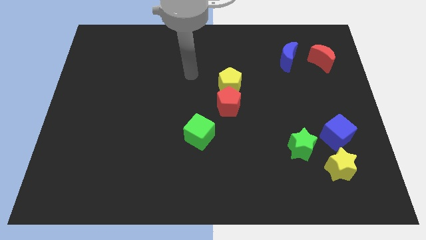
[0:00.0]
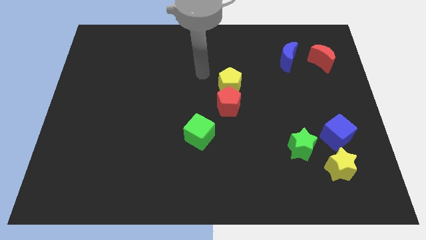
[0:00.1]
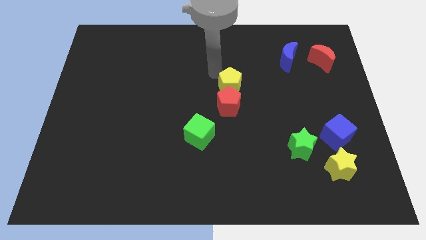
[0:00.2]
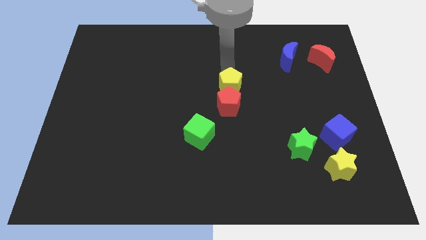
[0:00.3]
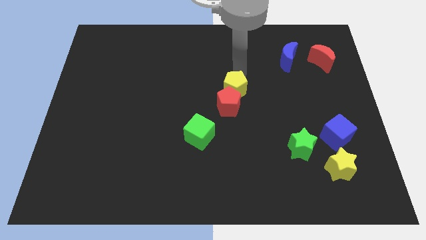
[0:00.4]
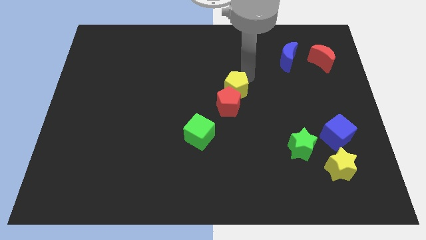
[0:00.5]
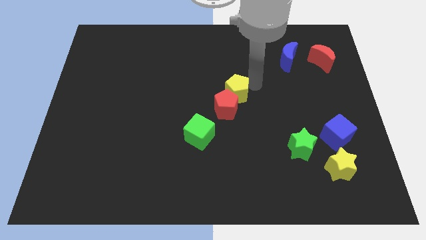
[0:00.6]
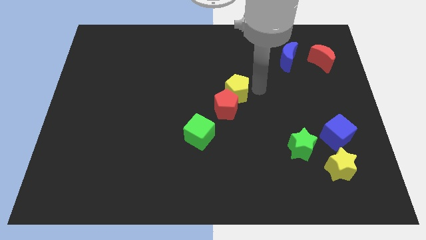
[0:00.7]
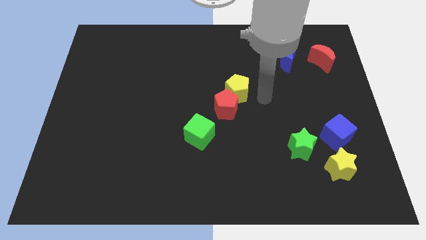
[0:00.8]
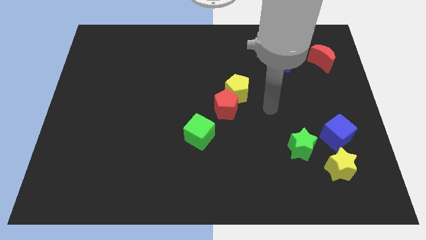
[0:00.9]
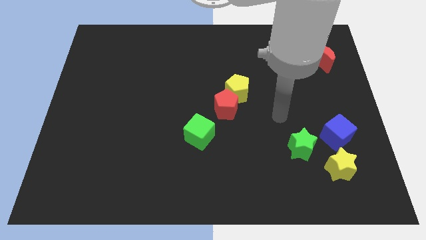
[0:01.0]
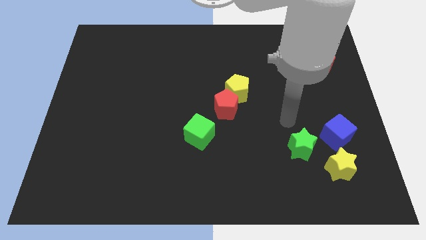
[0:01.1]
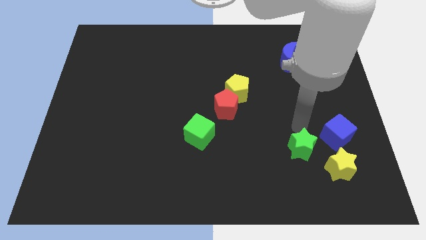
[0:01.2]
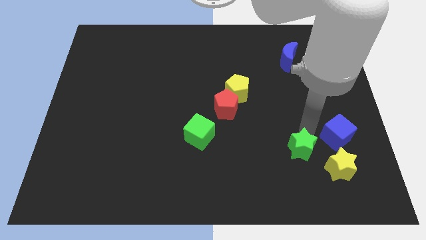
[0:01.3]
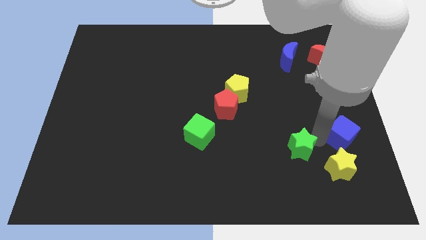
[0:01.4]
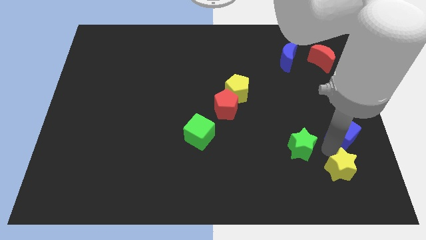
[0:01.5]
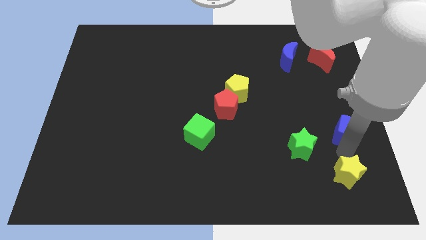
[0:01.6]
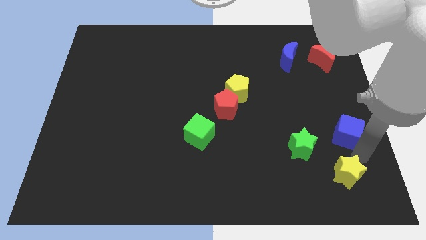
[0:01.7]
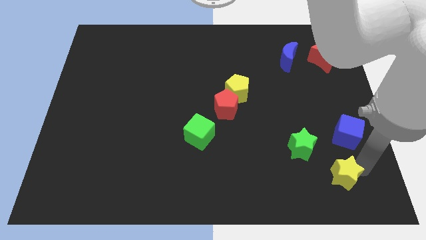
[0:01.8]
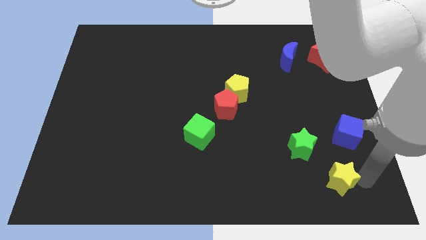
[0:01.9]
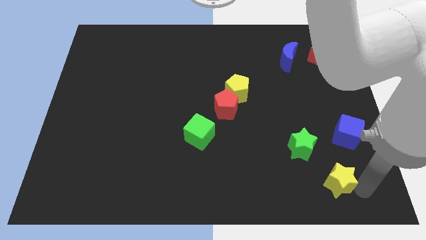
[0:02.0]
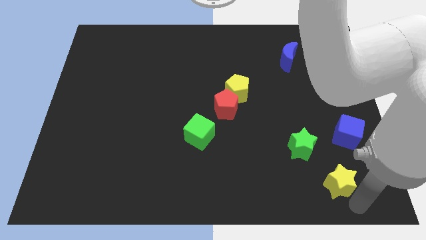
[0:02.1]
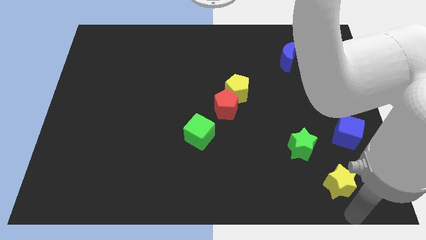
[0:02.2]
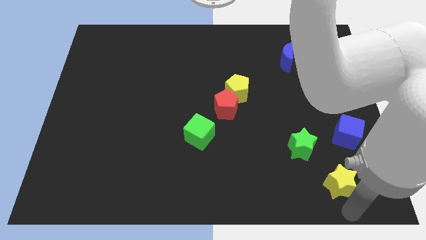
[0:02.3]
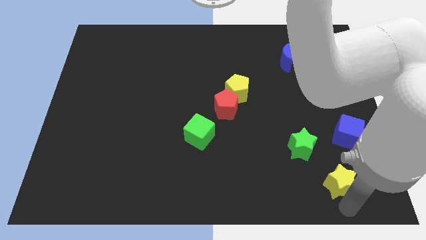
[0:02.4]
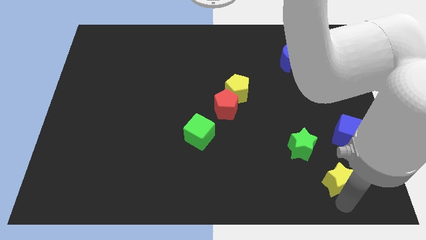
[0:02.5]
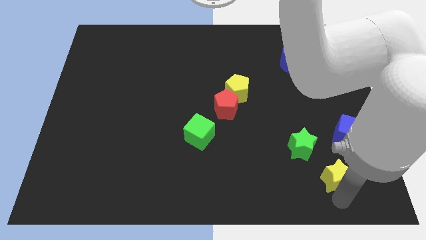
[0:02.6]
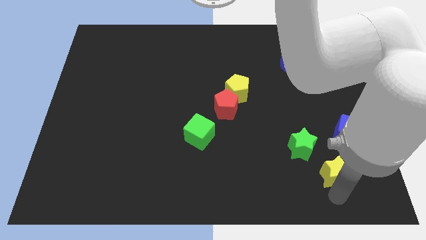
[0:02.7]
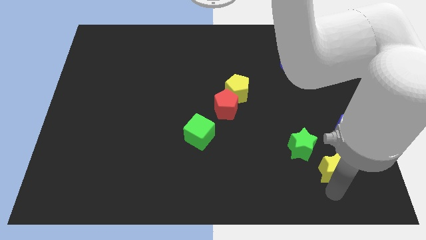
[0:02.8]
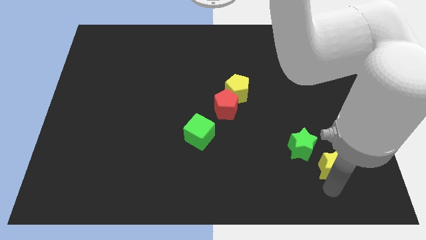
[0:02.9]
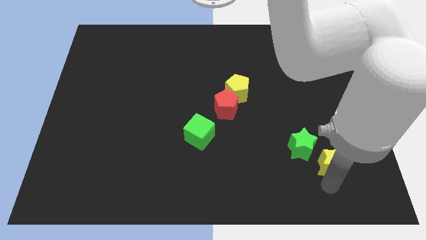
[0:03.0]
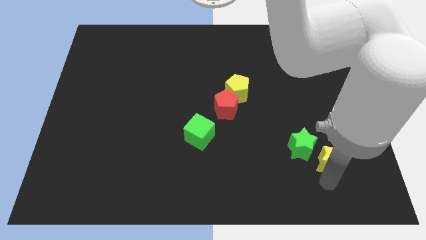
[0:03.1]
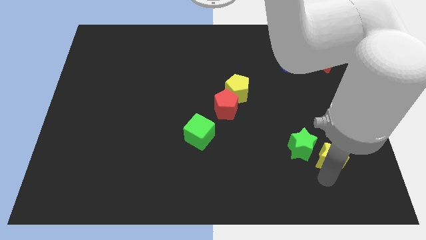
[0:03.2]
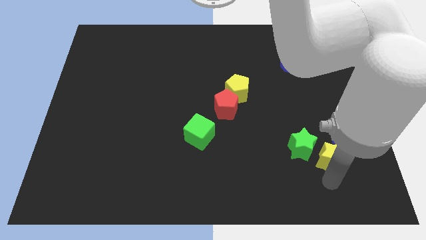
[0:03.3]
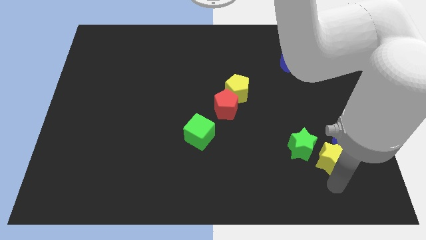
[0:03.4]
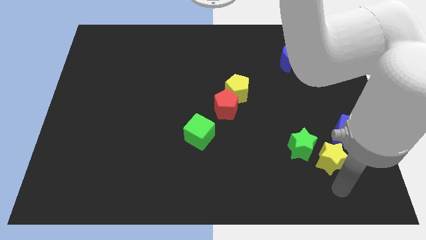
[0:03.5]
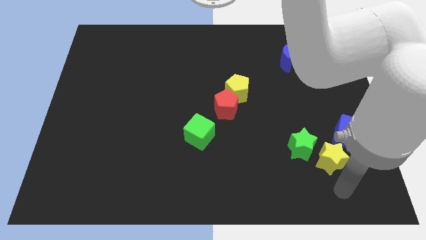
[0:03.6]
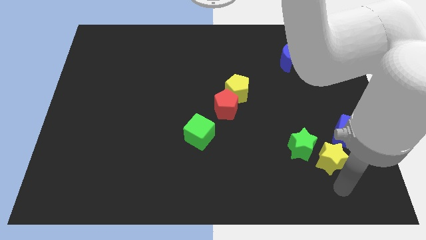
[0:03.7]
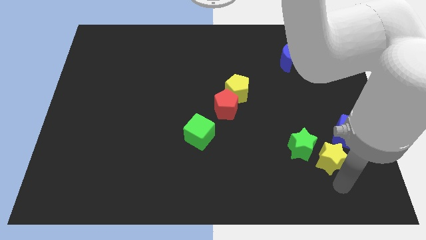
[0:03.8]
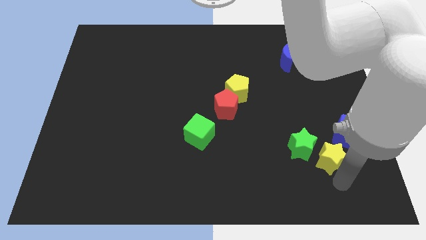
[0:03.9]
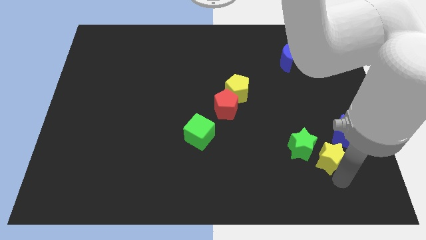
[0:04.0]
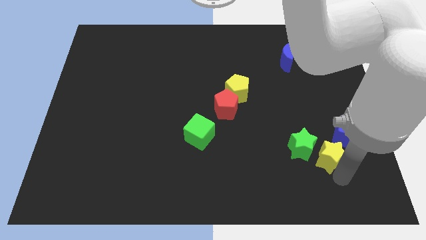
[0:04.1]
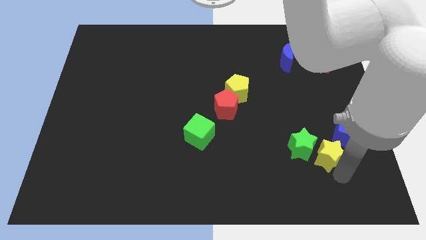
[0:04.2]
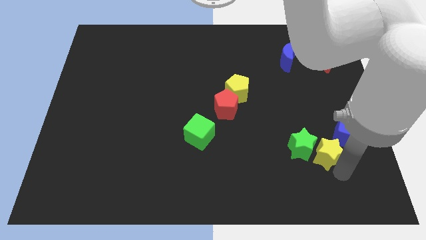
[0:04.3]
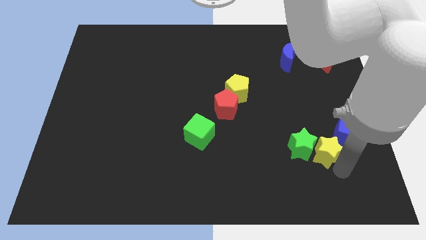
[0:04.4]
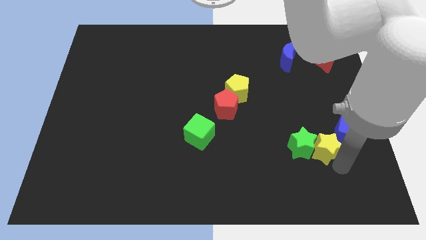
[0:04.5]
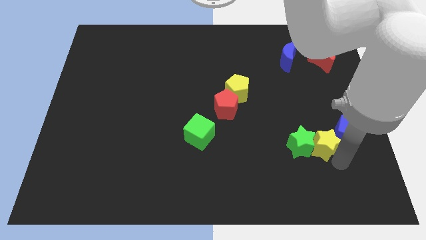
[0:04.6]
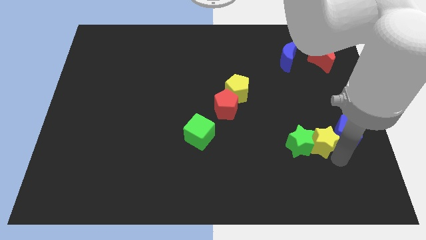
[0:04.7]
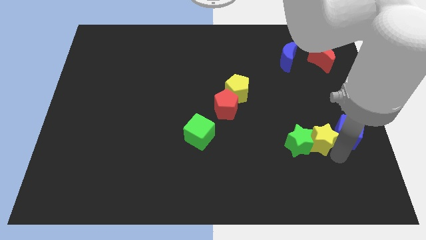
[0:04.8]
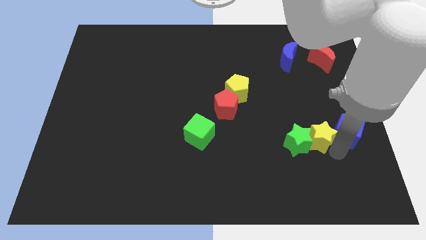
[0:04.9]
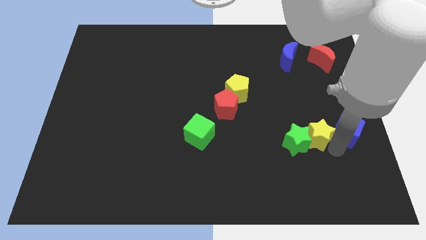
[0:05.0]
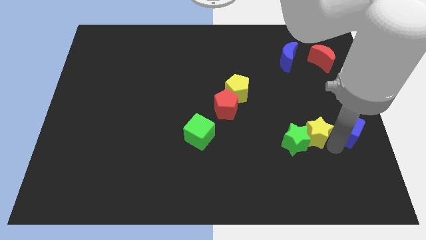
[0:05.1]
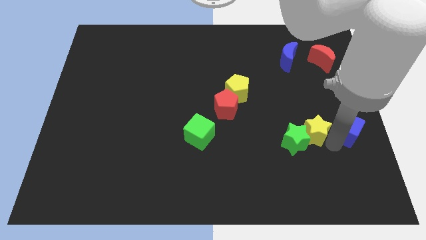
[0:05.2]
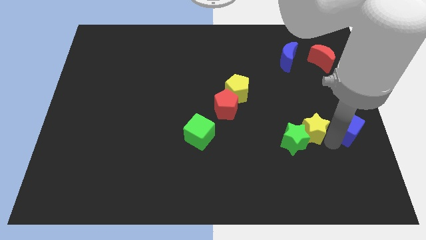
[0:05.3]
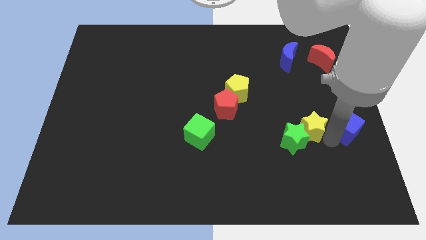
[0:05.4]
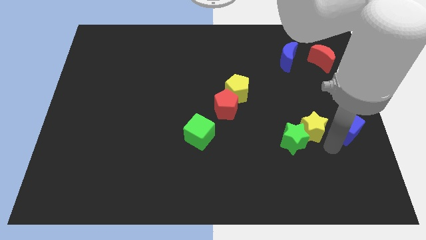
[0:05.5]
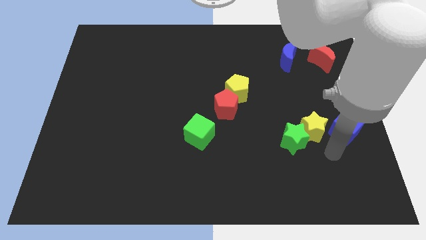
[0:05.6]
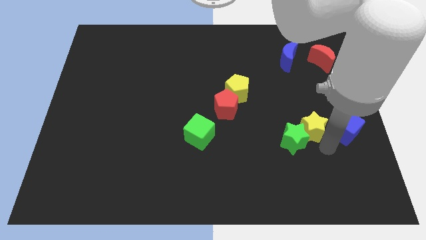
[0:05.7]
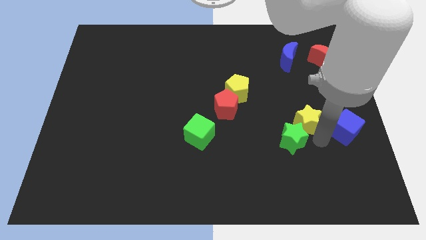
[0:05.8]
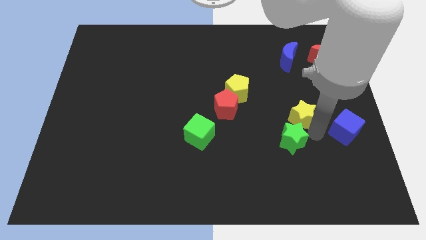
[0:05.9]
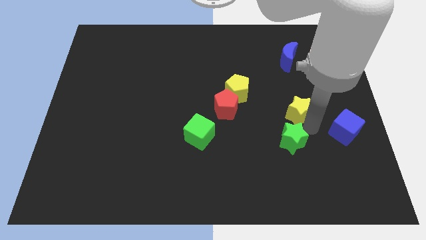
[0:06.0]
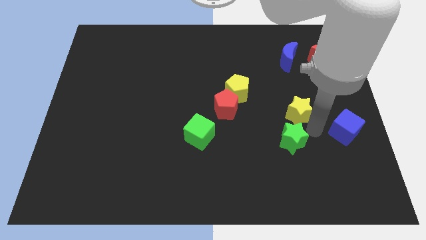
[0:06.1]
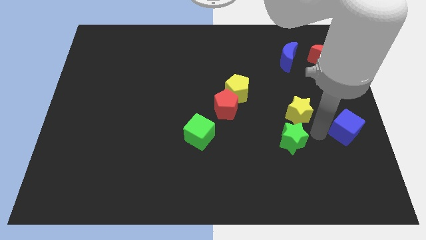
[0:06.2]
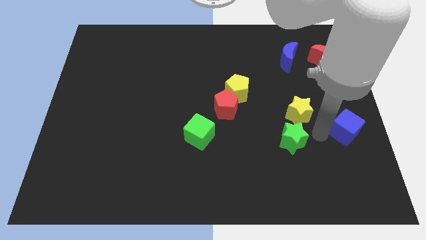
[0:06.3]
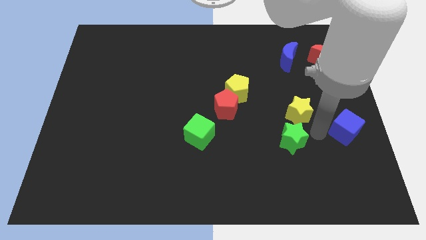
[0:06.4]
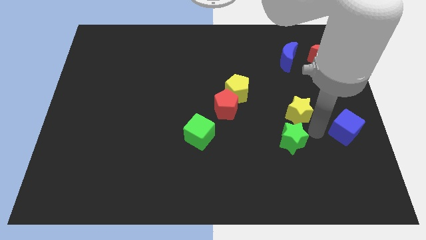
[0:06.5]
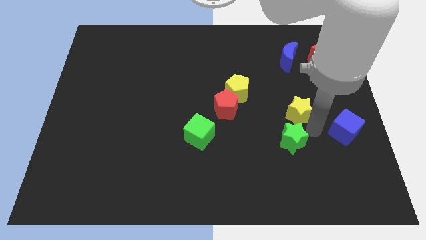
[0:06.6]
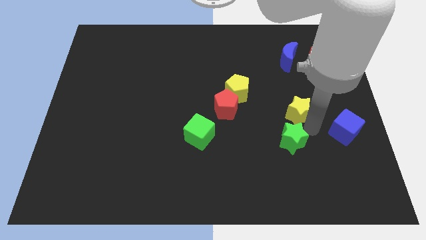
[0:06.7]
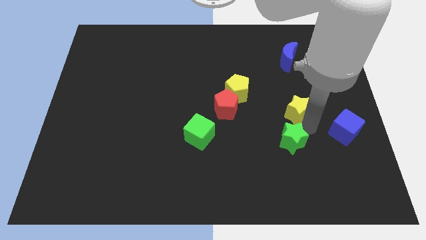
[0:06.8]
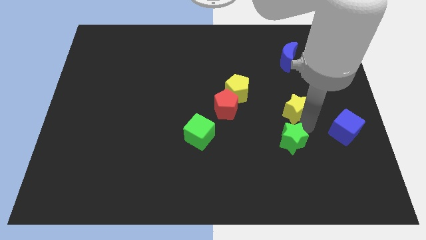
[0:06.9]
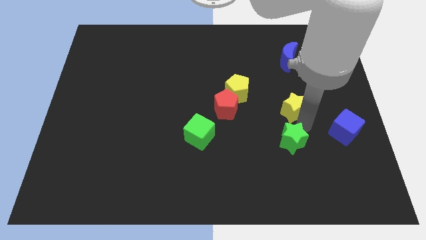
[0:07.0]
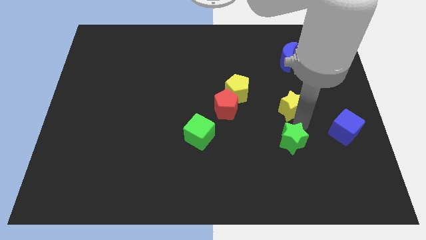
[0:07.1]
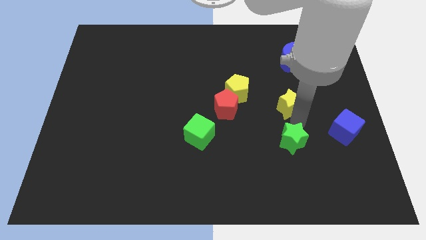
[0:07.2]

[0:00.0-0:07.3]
move the yellow star to the right side of the yellow pentagon
